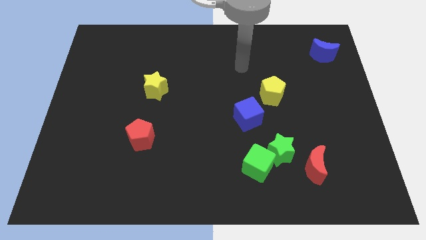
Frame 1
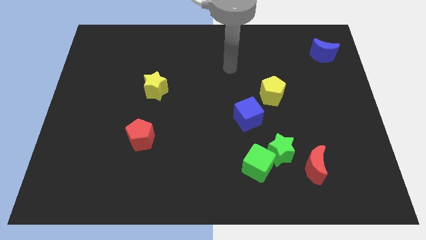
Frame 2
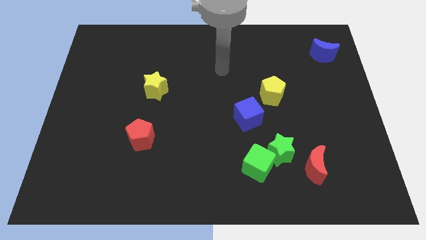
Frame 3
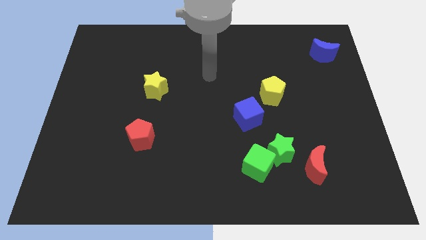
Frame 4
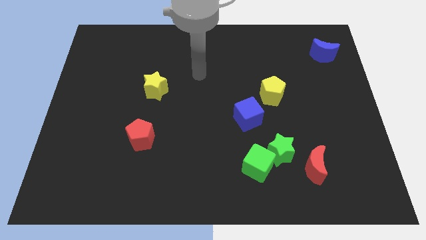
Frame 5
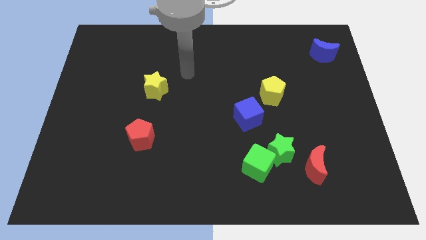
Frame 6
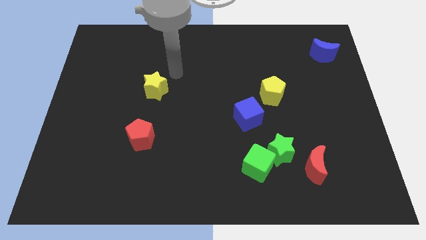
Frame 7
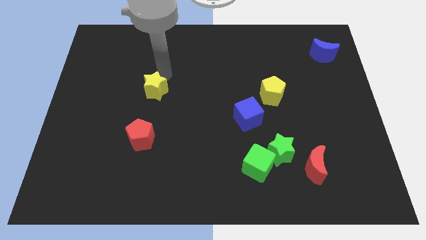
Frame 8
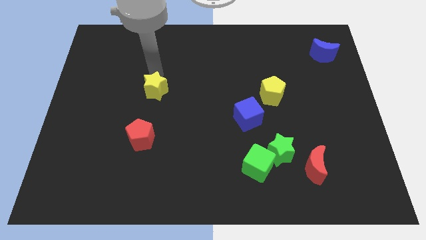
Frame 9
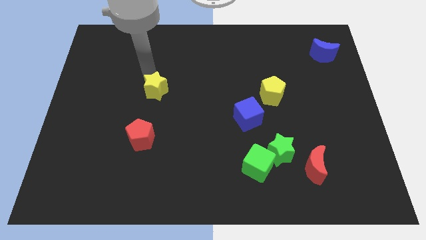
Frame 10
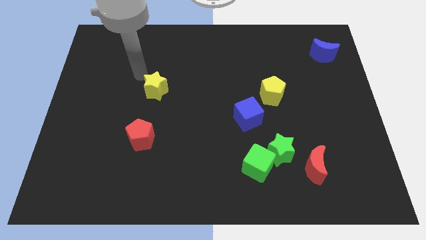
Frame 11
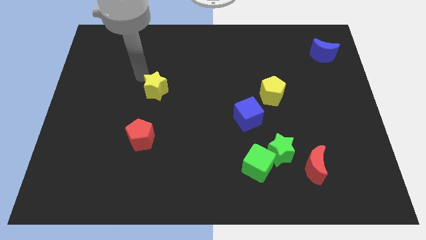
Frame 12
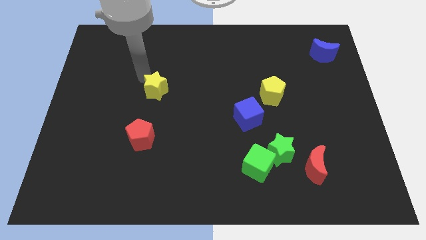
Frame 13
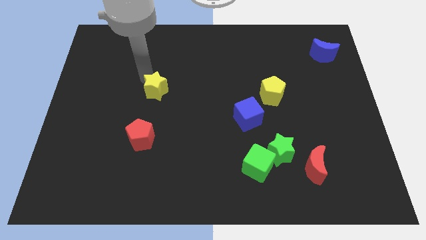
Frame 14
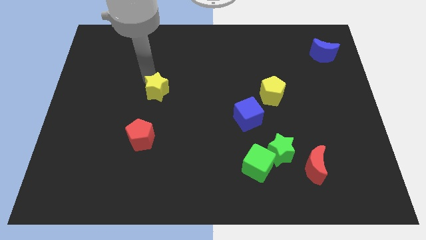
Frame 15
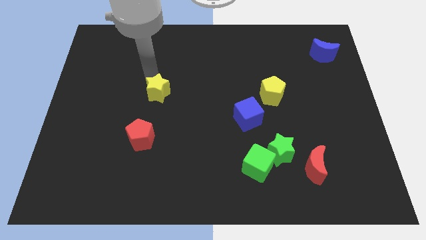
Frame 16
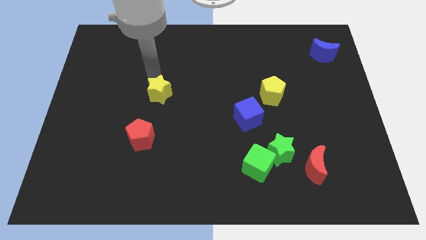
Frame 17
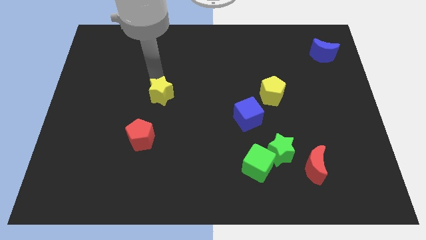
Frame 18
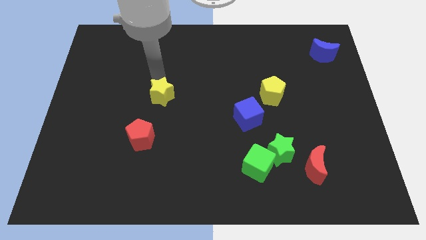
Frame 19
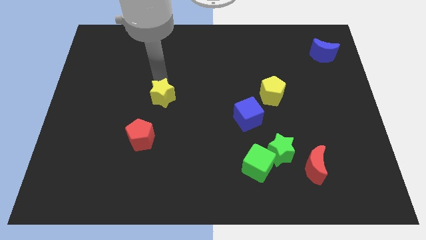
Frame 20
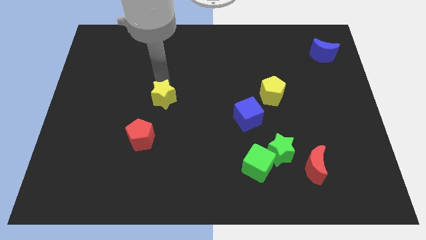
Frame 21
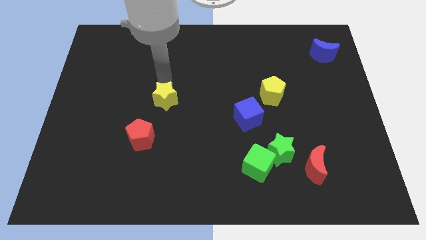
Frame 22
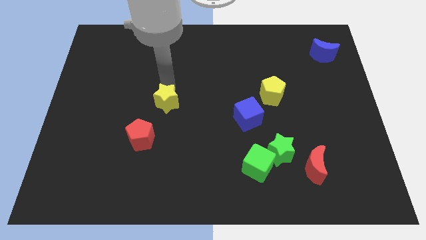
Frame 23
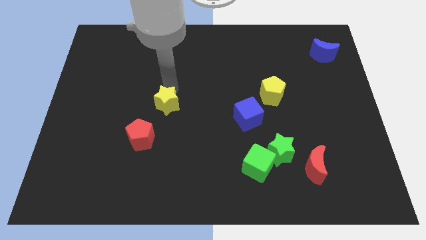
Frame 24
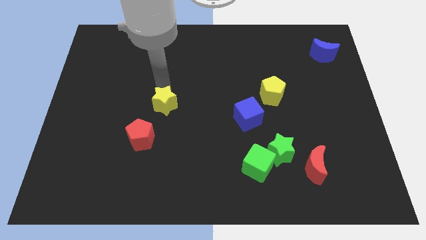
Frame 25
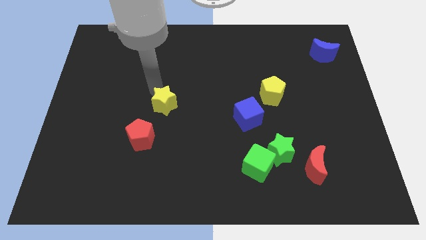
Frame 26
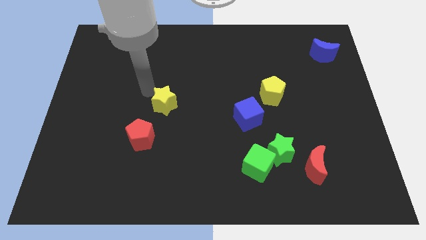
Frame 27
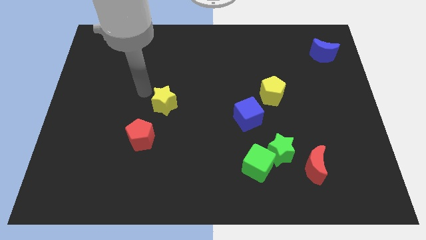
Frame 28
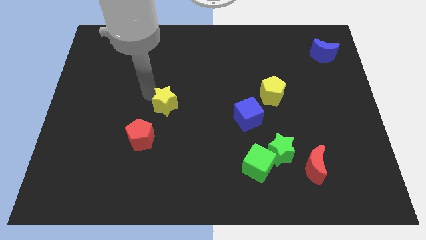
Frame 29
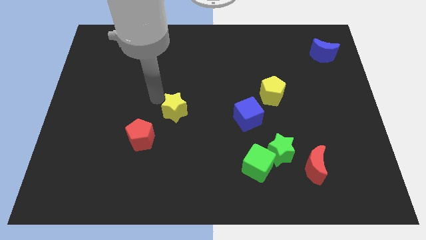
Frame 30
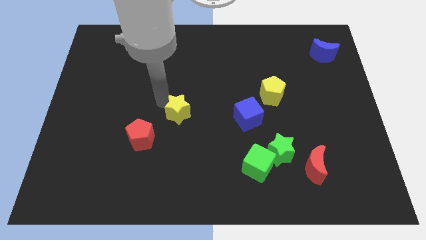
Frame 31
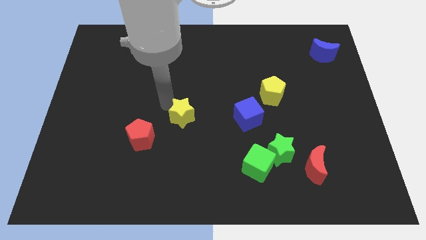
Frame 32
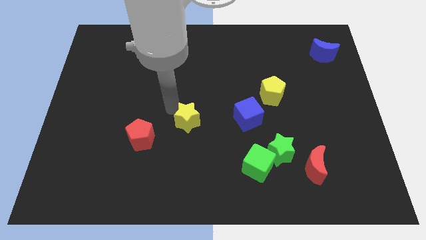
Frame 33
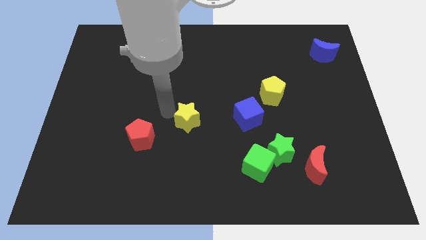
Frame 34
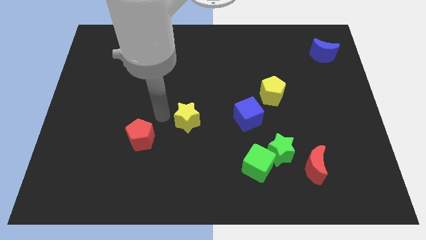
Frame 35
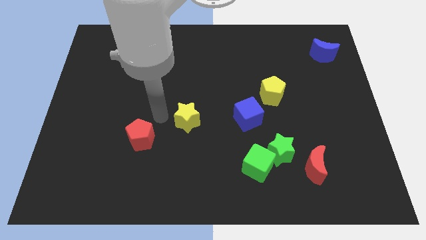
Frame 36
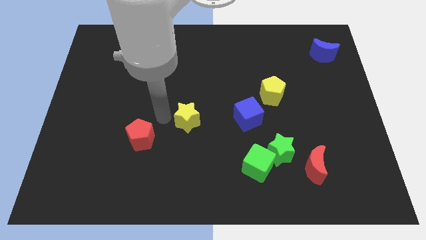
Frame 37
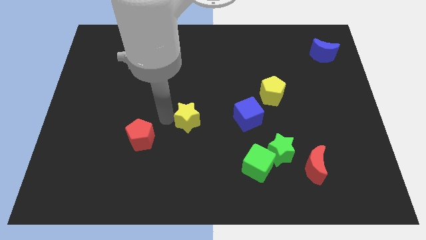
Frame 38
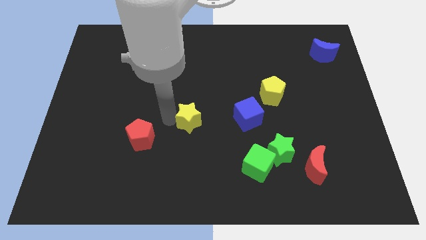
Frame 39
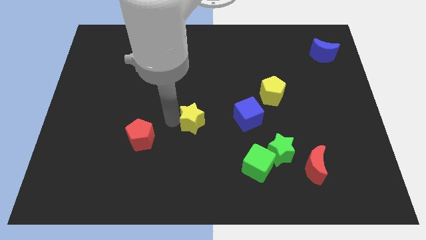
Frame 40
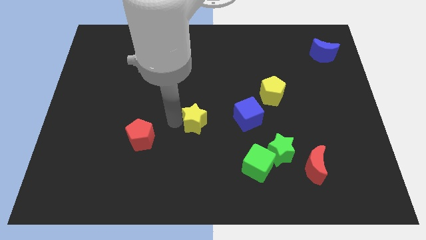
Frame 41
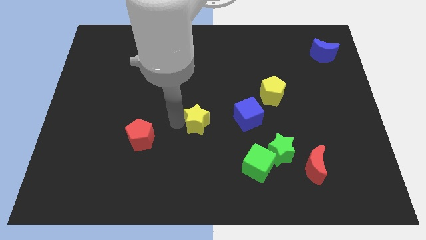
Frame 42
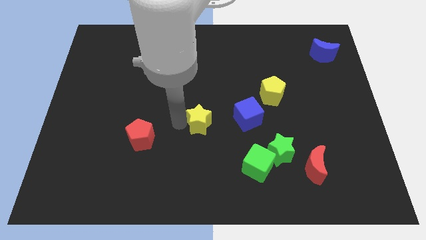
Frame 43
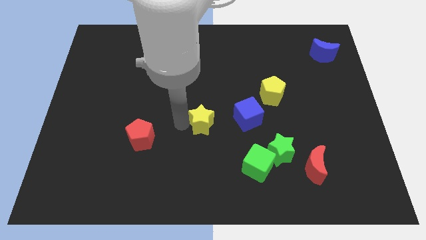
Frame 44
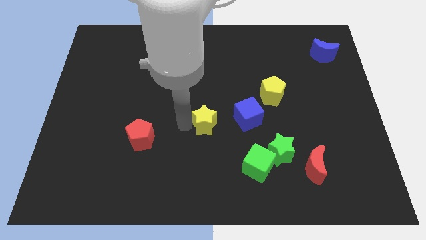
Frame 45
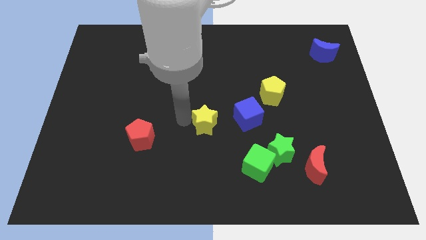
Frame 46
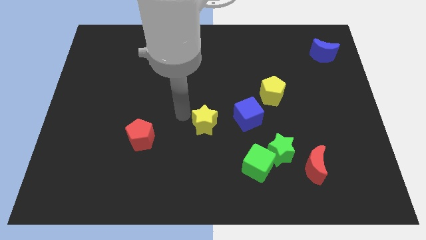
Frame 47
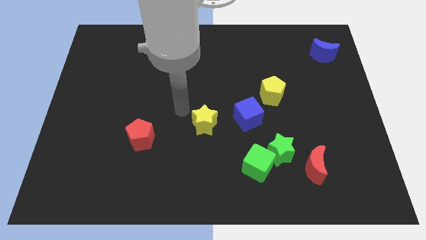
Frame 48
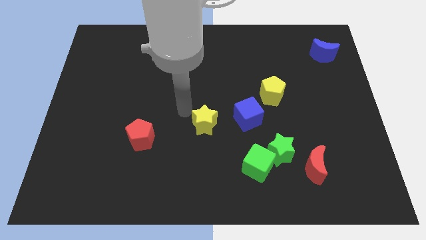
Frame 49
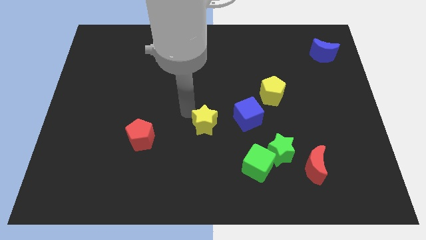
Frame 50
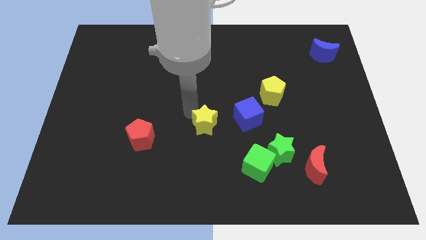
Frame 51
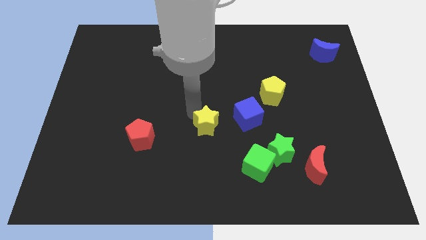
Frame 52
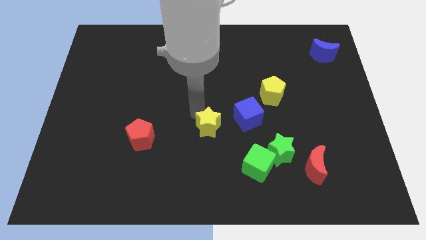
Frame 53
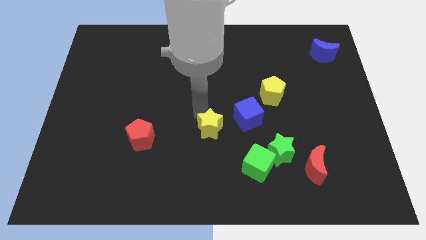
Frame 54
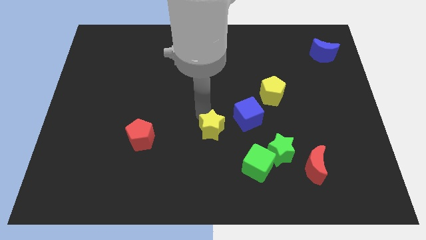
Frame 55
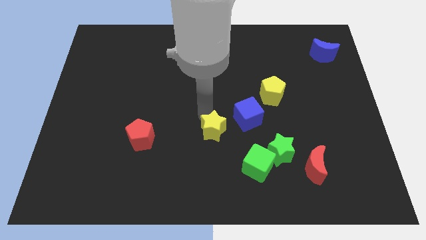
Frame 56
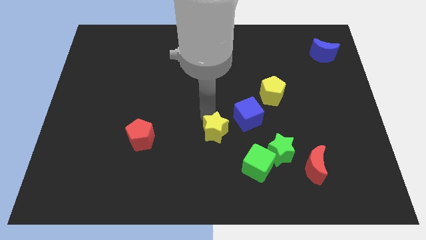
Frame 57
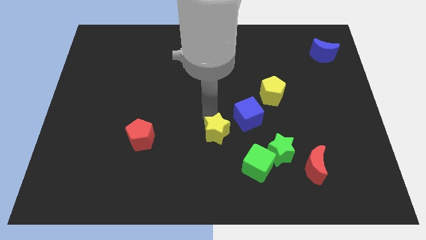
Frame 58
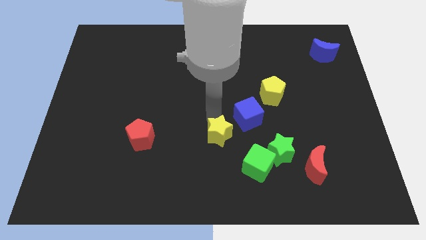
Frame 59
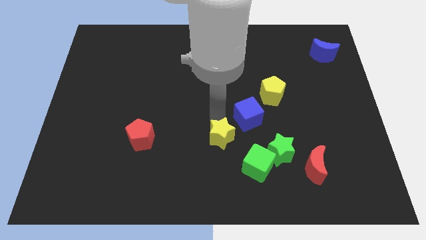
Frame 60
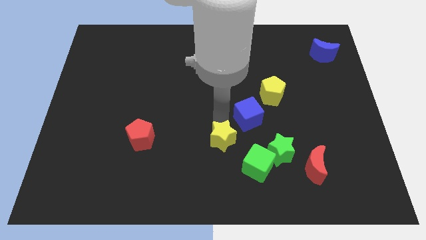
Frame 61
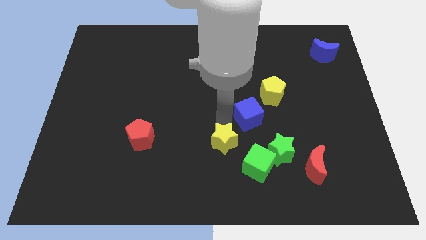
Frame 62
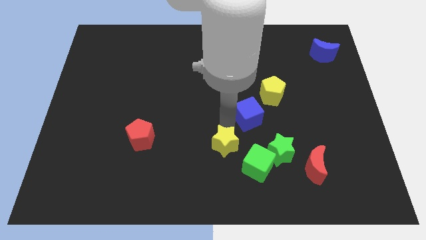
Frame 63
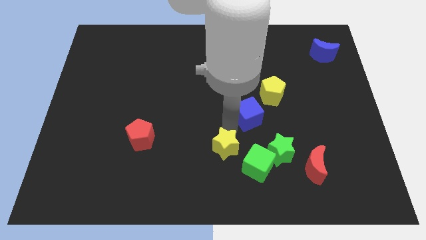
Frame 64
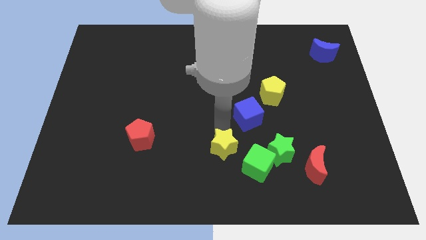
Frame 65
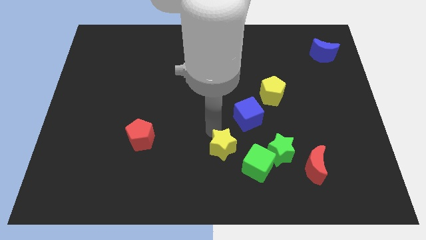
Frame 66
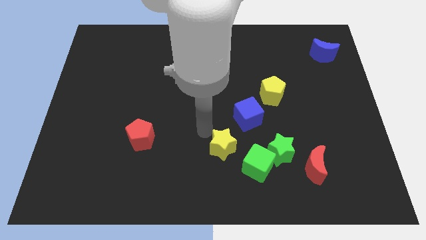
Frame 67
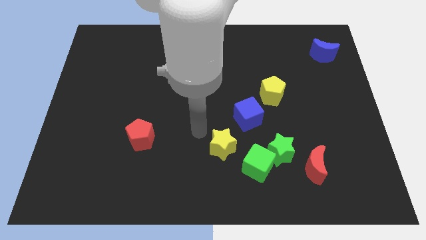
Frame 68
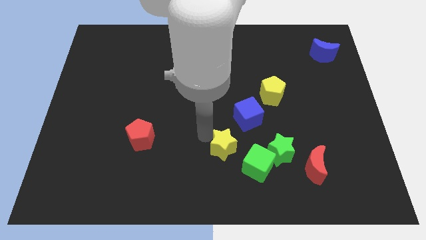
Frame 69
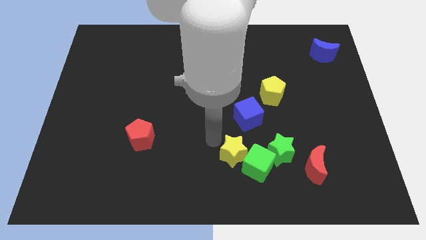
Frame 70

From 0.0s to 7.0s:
put the yellow star to the green cube
